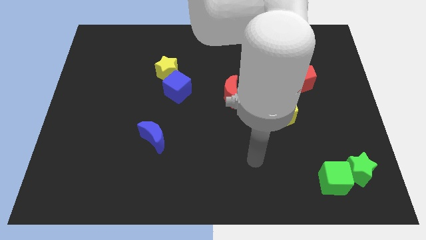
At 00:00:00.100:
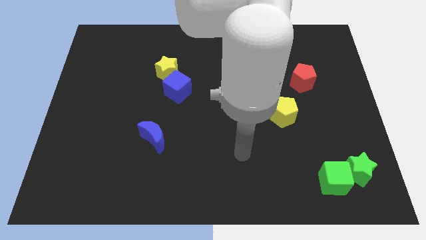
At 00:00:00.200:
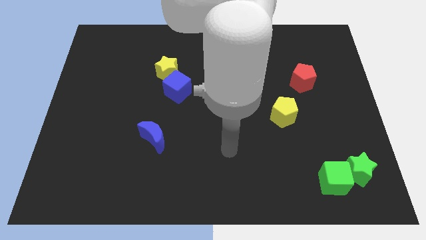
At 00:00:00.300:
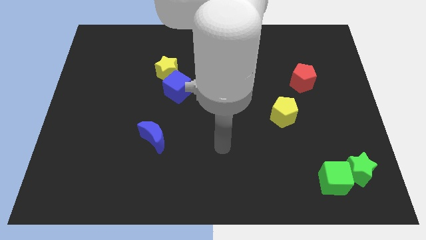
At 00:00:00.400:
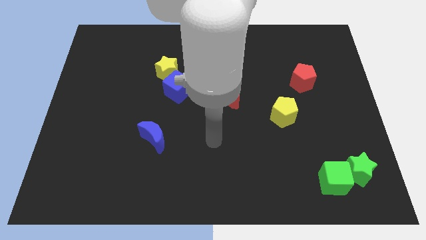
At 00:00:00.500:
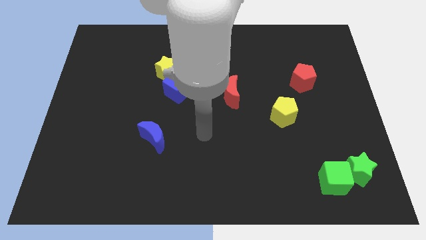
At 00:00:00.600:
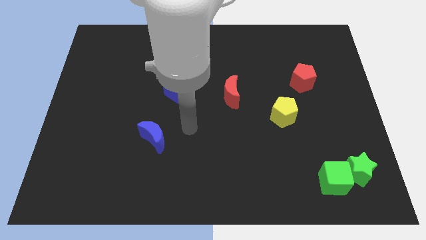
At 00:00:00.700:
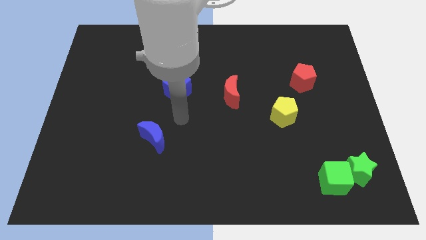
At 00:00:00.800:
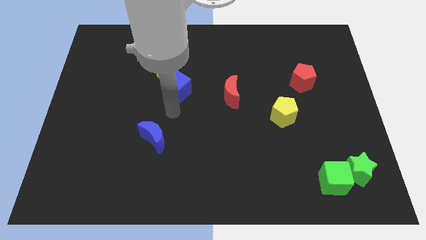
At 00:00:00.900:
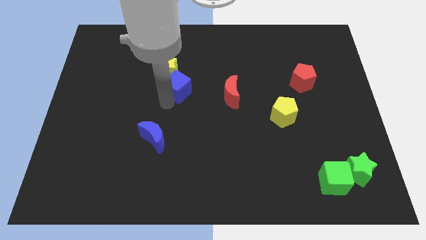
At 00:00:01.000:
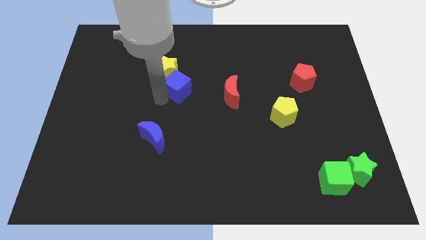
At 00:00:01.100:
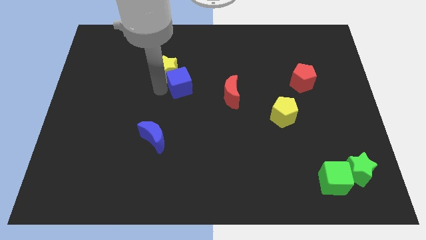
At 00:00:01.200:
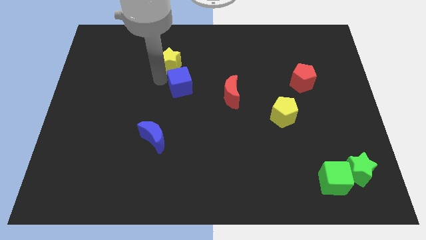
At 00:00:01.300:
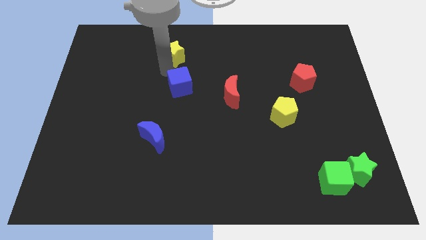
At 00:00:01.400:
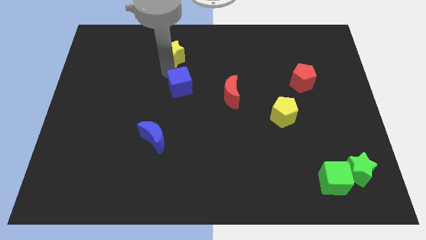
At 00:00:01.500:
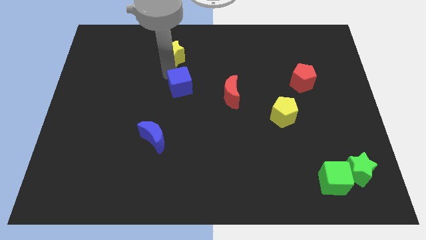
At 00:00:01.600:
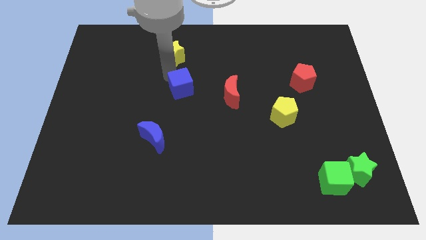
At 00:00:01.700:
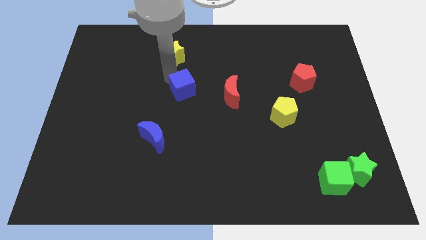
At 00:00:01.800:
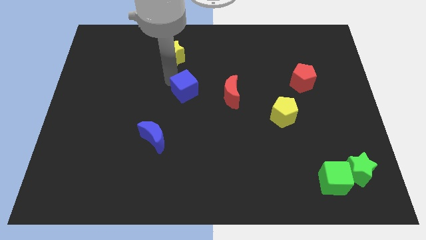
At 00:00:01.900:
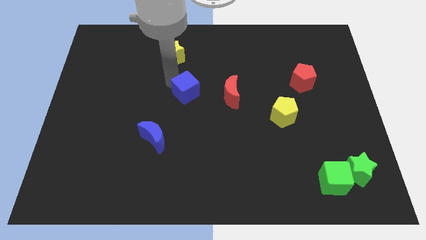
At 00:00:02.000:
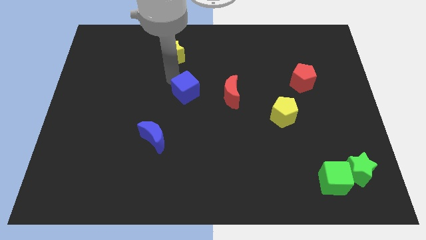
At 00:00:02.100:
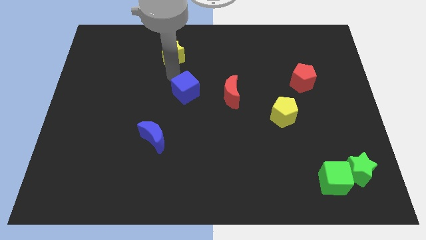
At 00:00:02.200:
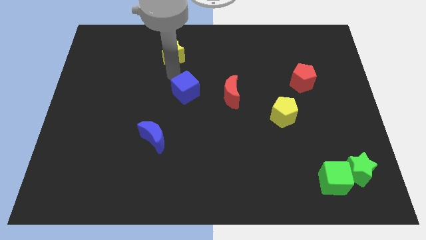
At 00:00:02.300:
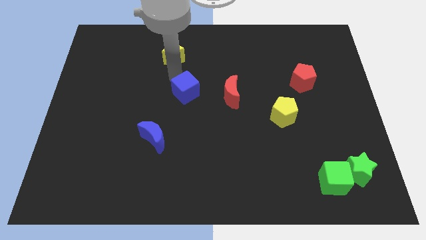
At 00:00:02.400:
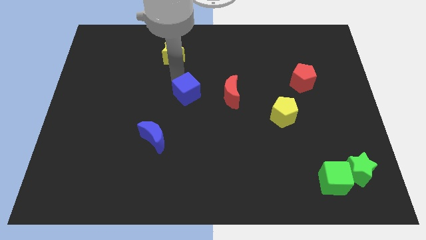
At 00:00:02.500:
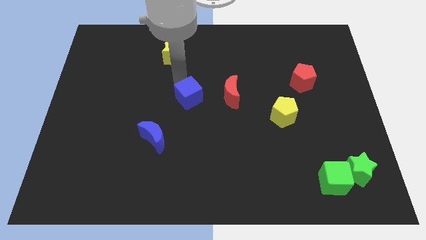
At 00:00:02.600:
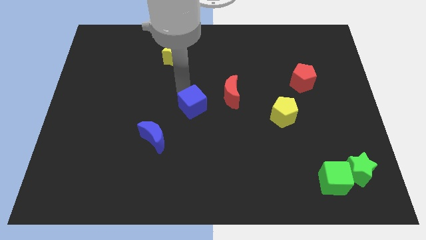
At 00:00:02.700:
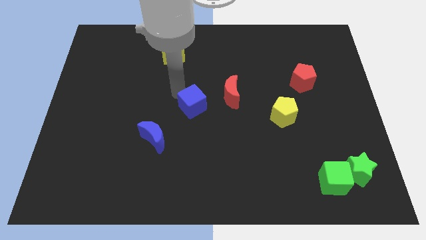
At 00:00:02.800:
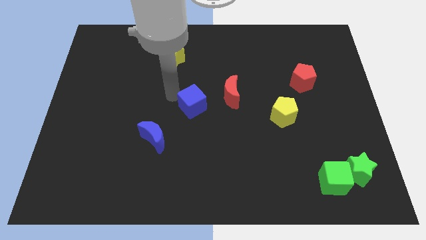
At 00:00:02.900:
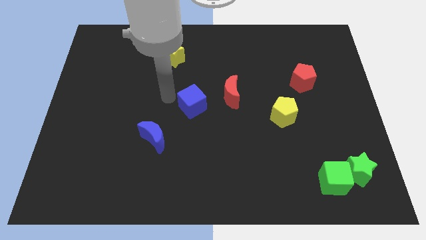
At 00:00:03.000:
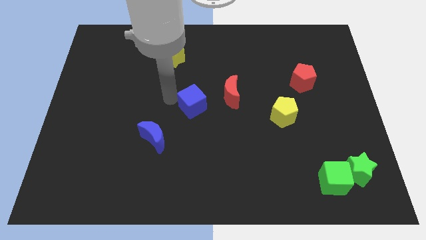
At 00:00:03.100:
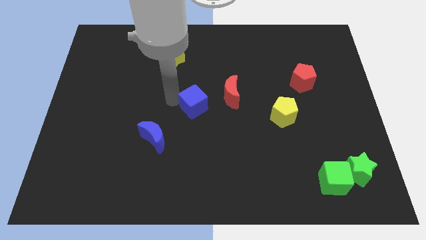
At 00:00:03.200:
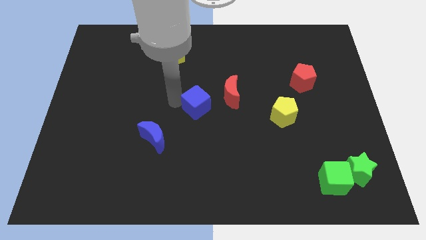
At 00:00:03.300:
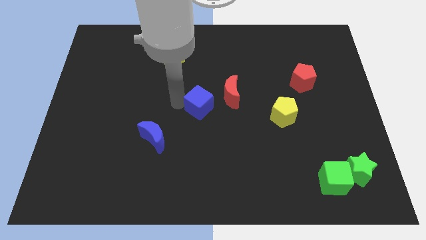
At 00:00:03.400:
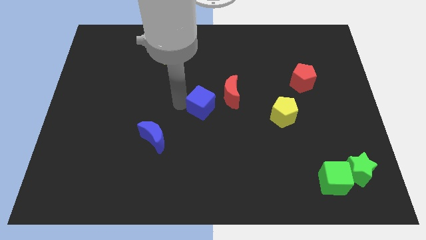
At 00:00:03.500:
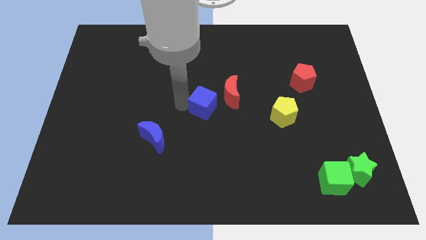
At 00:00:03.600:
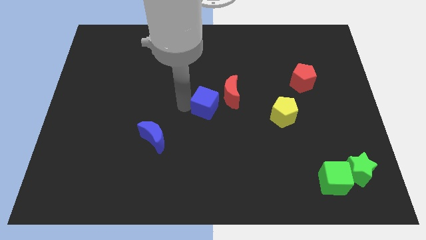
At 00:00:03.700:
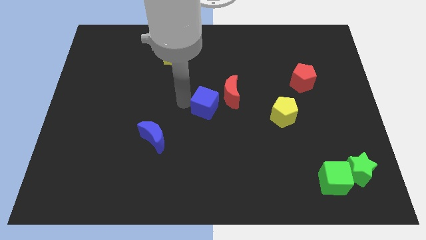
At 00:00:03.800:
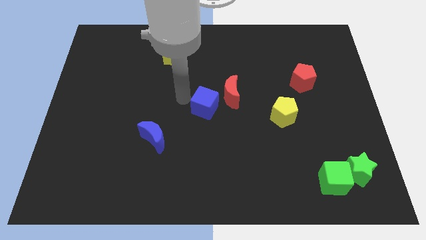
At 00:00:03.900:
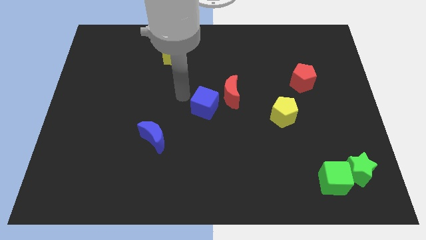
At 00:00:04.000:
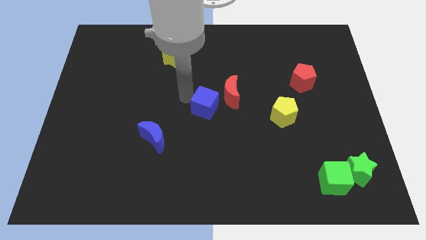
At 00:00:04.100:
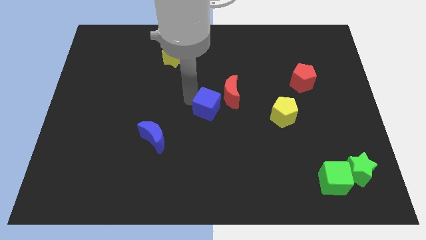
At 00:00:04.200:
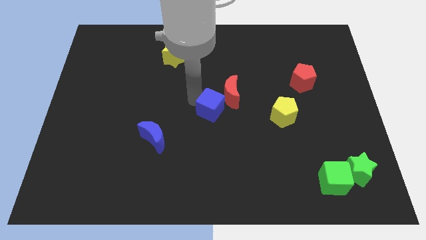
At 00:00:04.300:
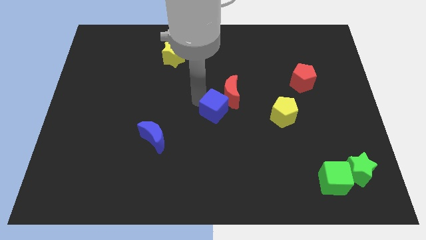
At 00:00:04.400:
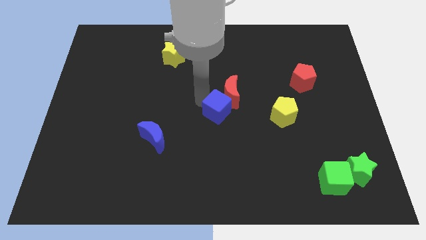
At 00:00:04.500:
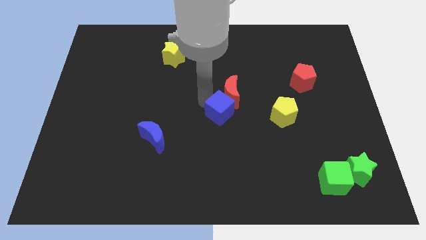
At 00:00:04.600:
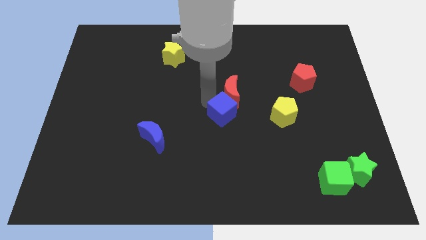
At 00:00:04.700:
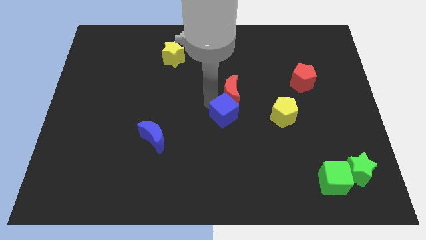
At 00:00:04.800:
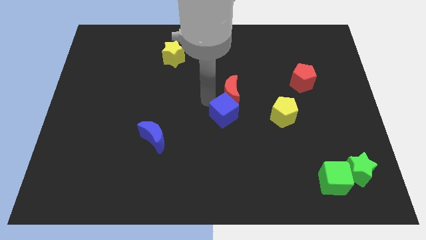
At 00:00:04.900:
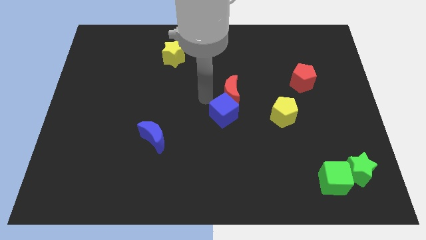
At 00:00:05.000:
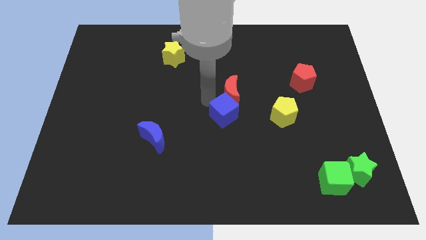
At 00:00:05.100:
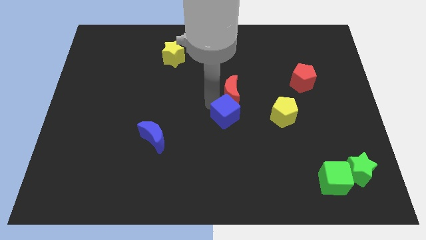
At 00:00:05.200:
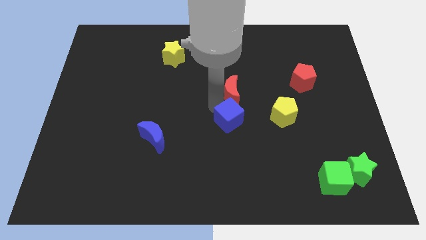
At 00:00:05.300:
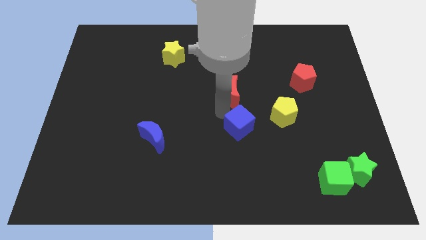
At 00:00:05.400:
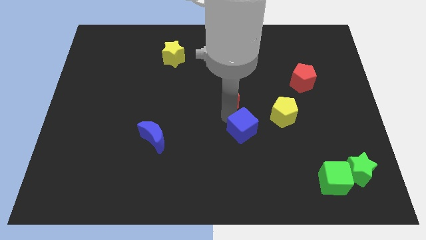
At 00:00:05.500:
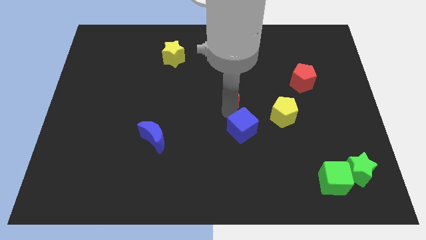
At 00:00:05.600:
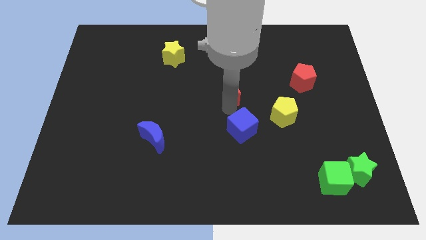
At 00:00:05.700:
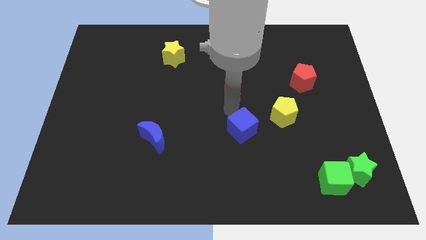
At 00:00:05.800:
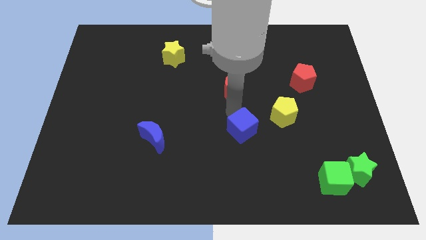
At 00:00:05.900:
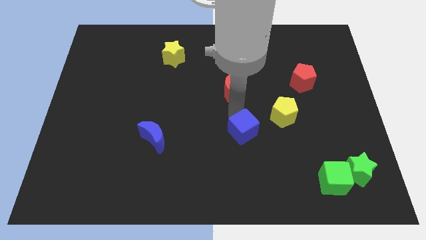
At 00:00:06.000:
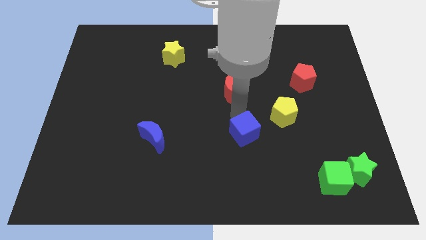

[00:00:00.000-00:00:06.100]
move the blue cube downwards and right diagonally

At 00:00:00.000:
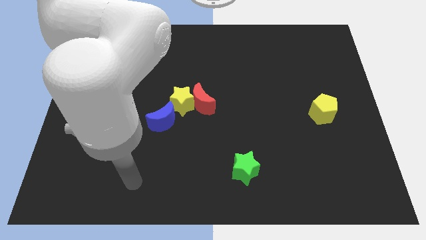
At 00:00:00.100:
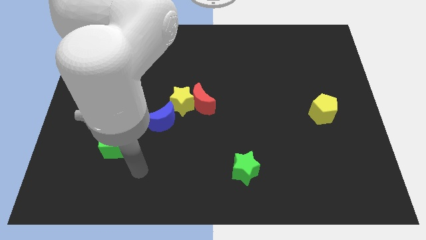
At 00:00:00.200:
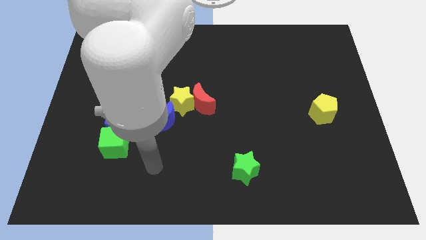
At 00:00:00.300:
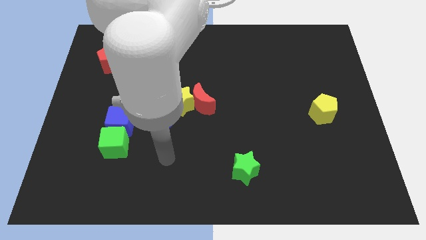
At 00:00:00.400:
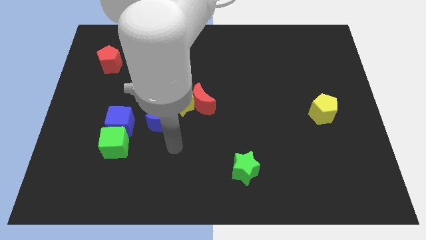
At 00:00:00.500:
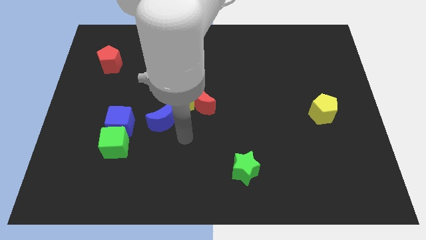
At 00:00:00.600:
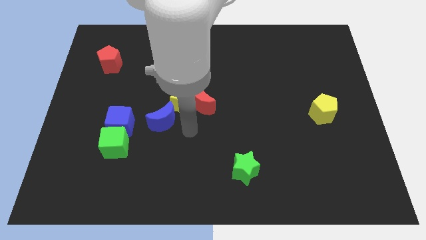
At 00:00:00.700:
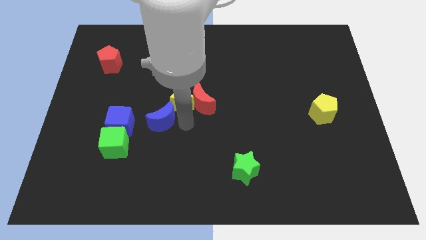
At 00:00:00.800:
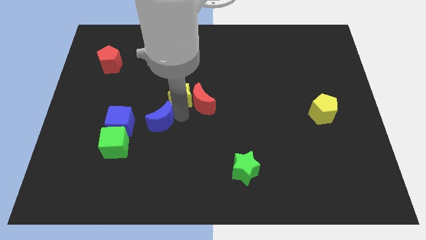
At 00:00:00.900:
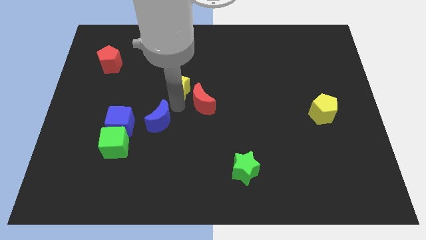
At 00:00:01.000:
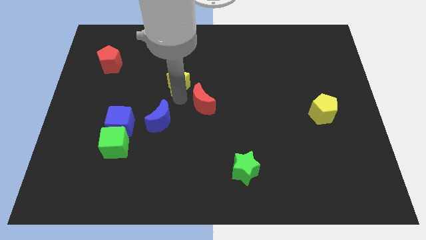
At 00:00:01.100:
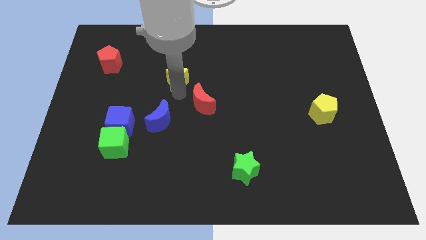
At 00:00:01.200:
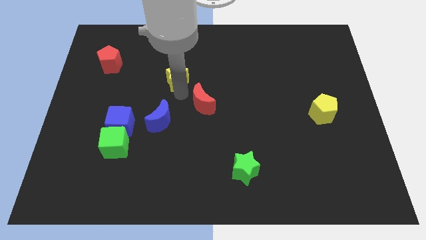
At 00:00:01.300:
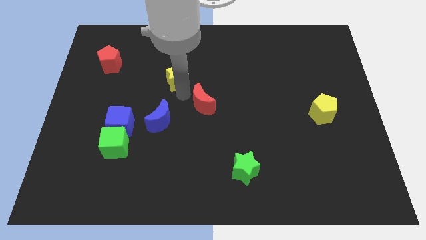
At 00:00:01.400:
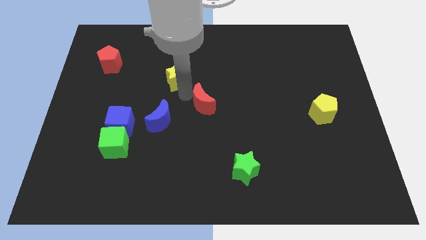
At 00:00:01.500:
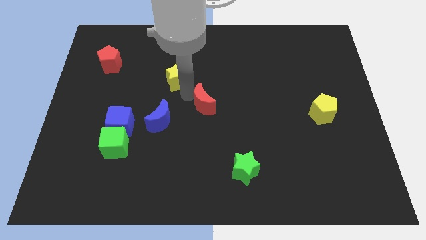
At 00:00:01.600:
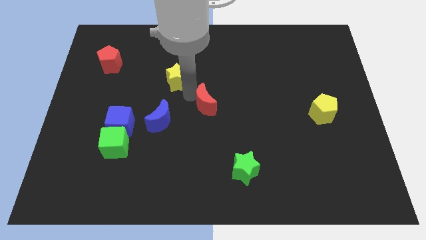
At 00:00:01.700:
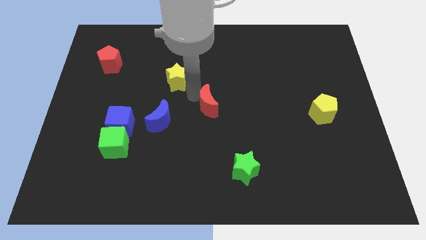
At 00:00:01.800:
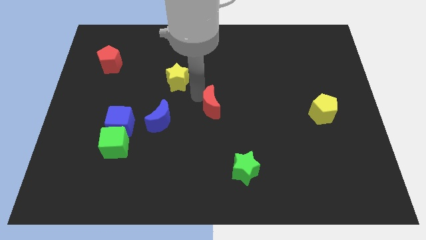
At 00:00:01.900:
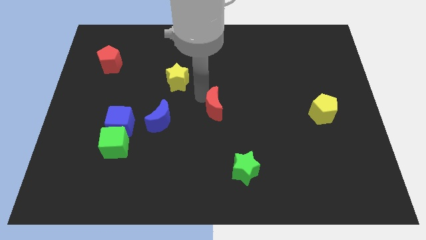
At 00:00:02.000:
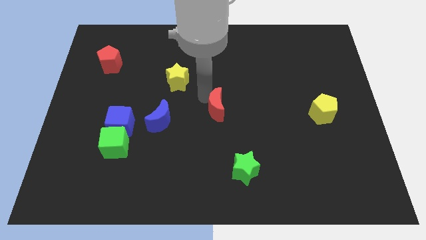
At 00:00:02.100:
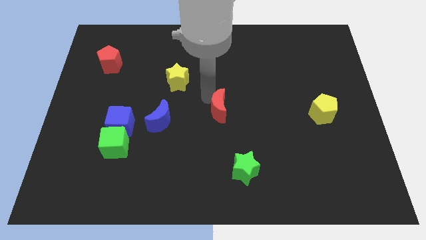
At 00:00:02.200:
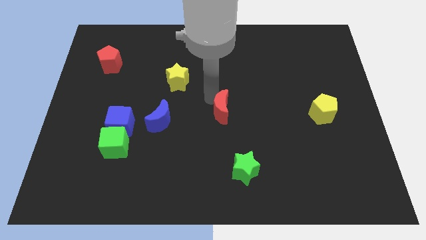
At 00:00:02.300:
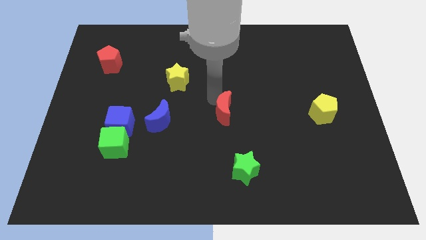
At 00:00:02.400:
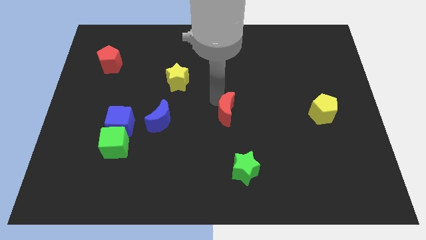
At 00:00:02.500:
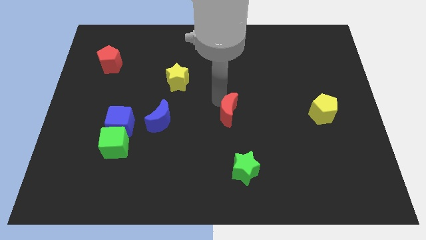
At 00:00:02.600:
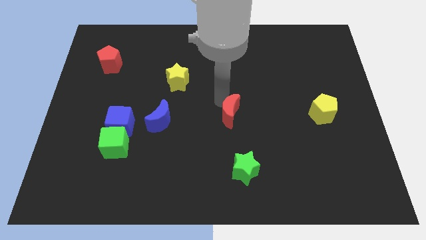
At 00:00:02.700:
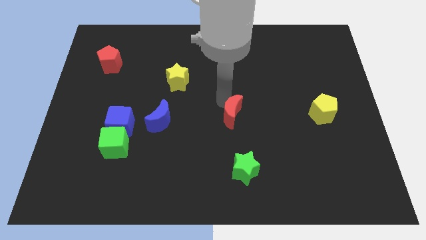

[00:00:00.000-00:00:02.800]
push the red moon downwards and right diagonally a little bit
